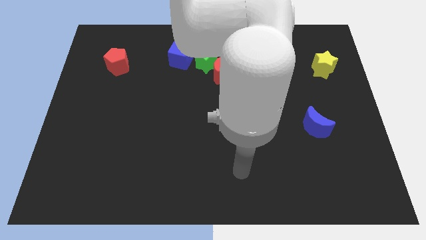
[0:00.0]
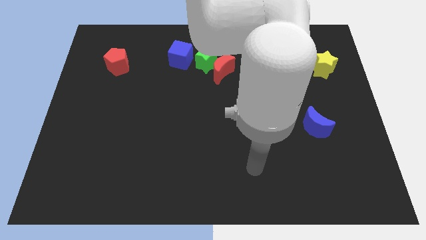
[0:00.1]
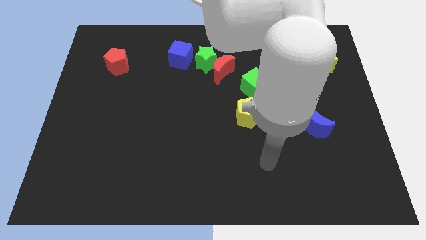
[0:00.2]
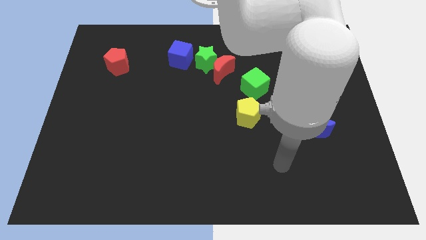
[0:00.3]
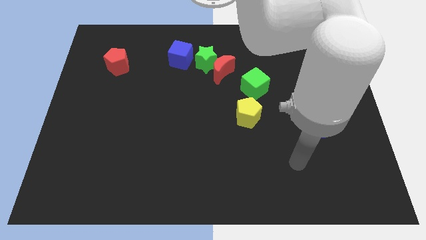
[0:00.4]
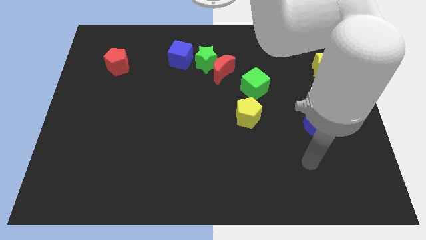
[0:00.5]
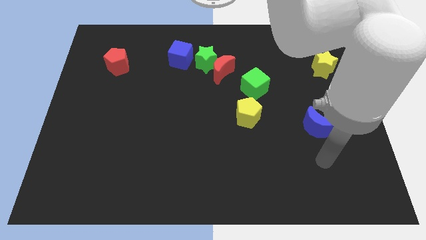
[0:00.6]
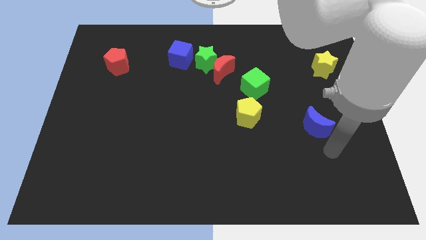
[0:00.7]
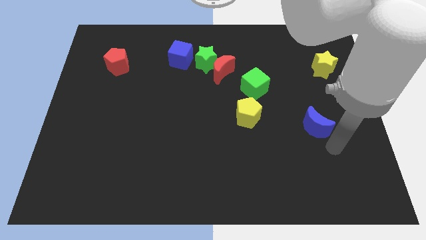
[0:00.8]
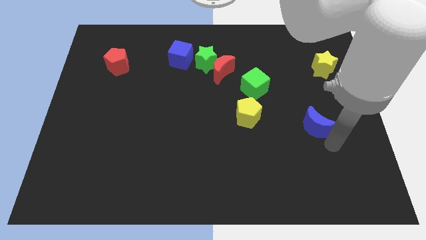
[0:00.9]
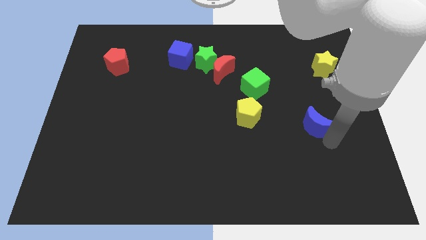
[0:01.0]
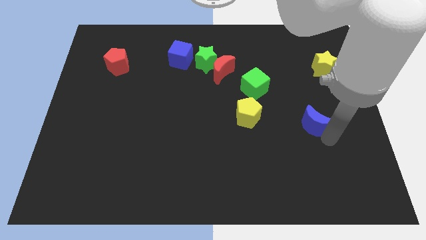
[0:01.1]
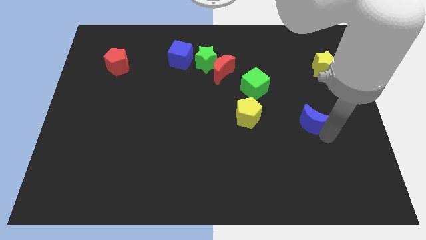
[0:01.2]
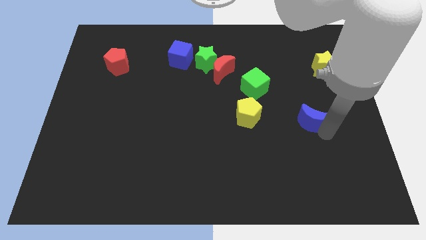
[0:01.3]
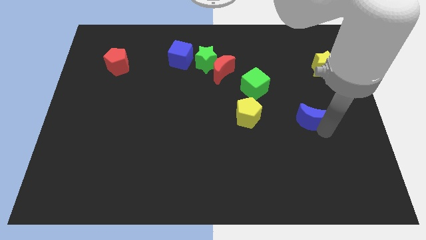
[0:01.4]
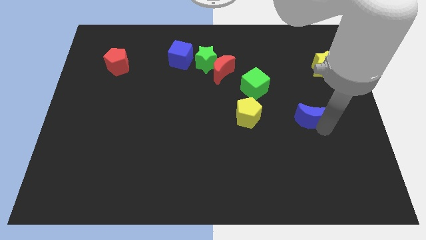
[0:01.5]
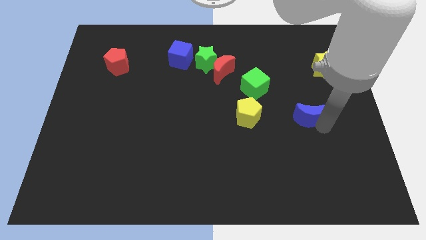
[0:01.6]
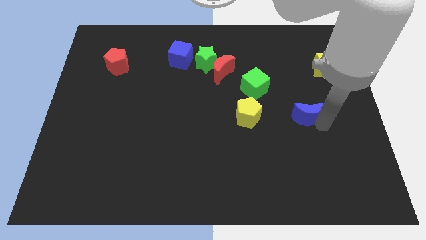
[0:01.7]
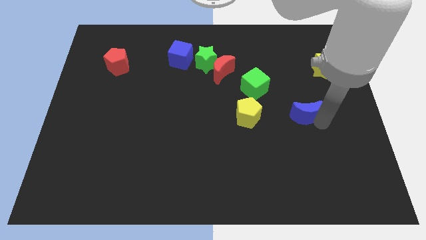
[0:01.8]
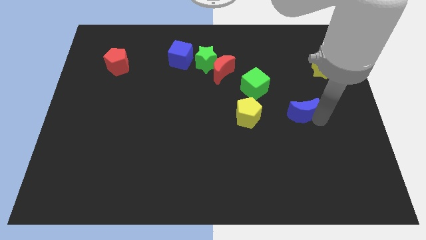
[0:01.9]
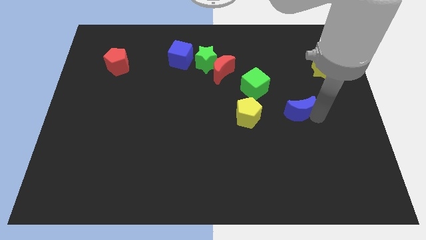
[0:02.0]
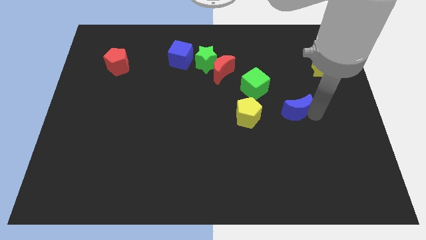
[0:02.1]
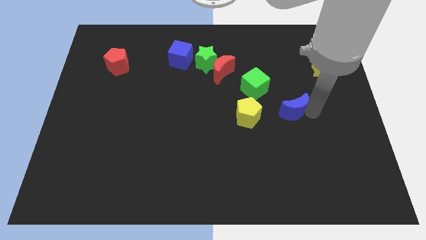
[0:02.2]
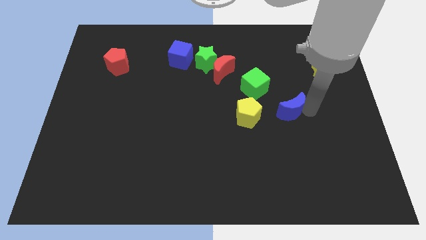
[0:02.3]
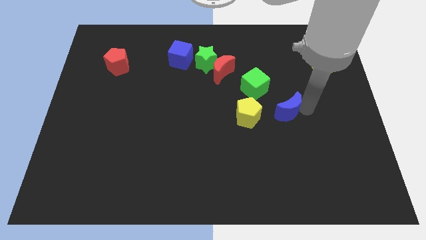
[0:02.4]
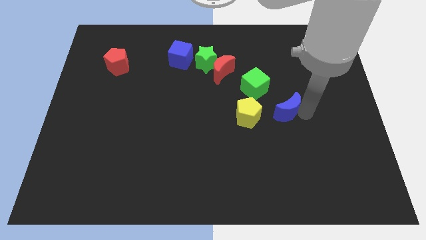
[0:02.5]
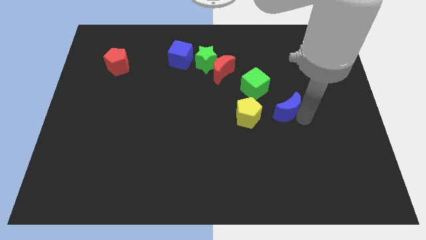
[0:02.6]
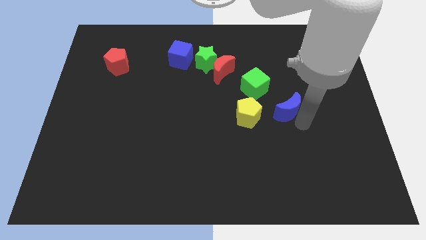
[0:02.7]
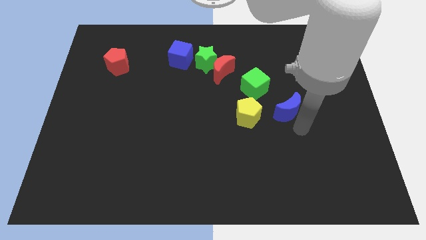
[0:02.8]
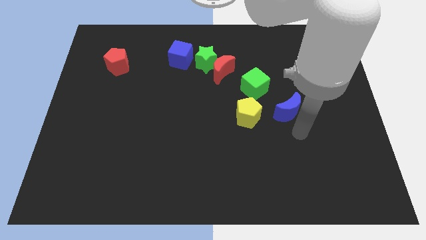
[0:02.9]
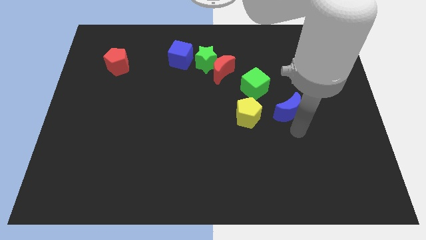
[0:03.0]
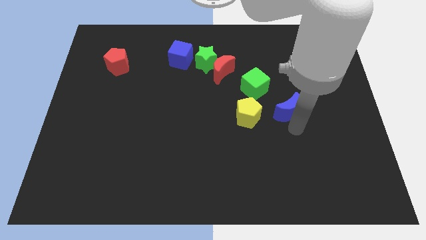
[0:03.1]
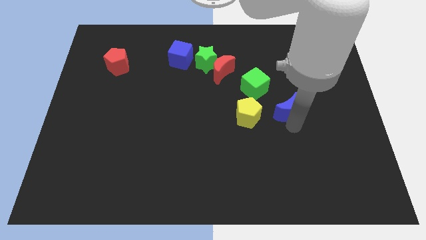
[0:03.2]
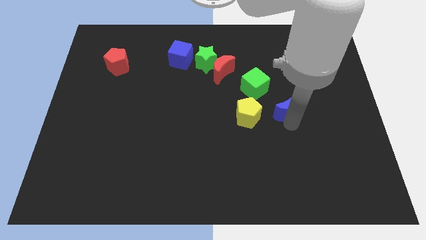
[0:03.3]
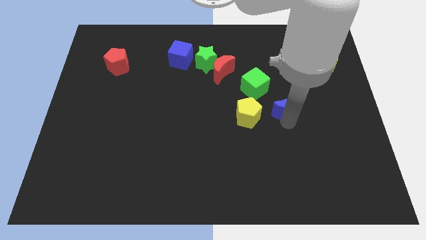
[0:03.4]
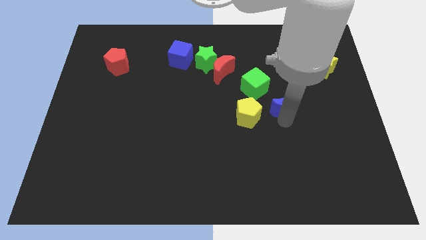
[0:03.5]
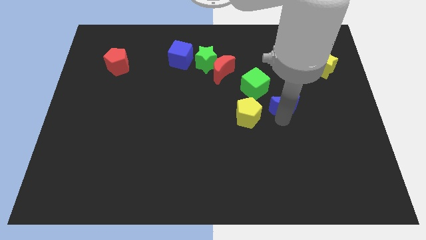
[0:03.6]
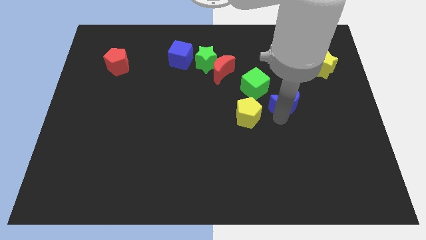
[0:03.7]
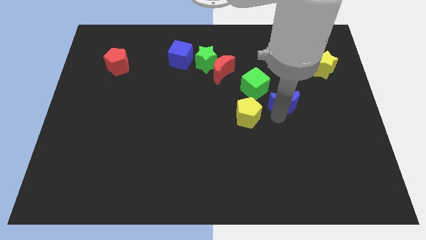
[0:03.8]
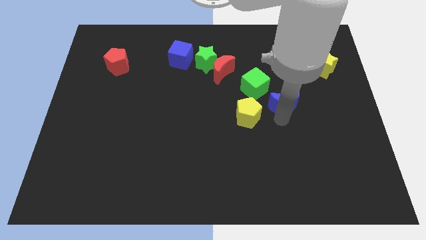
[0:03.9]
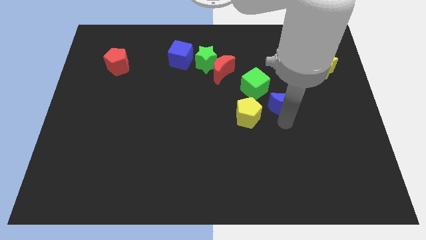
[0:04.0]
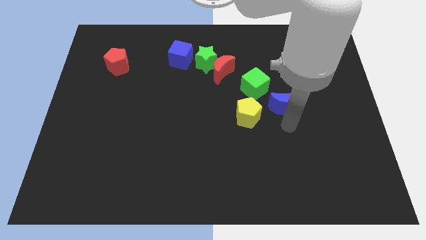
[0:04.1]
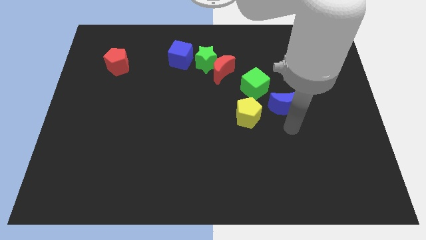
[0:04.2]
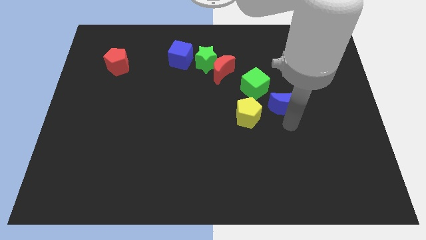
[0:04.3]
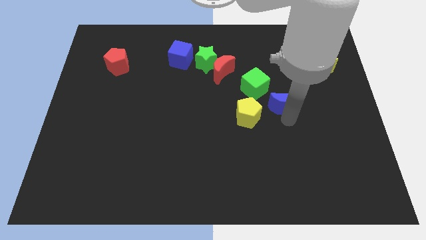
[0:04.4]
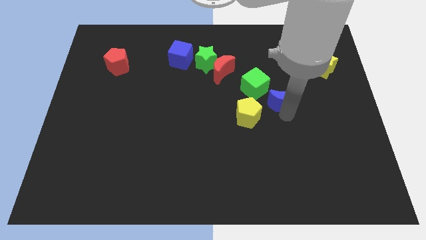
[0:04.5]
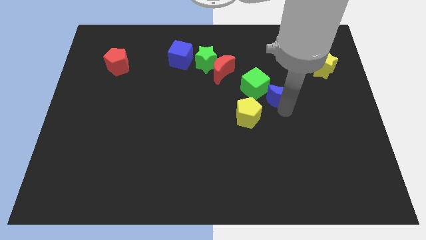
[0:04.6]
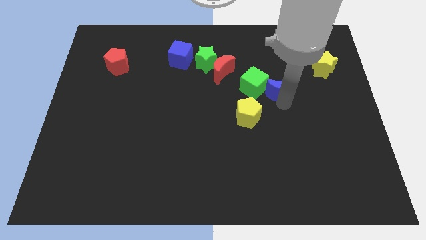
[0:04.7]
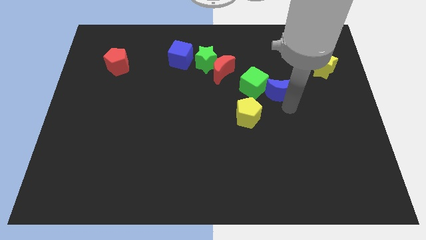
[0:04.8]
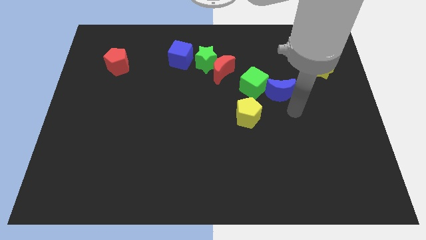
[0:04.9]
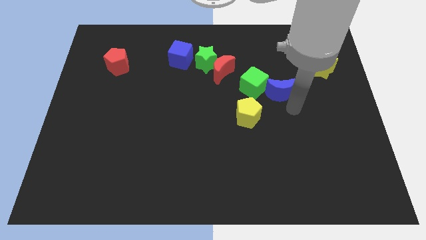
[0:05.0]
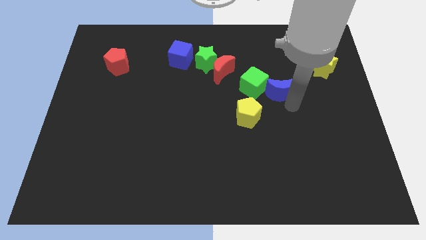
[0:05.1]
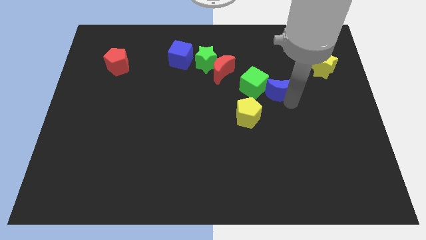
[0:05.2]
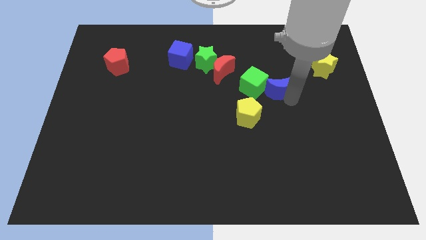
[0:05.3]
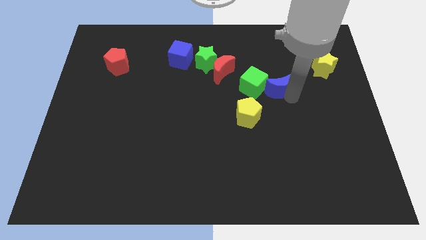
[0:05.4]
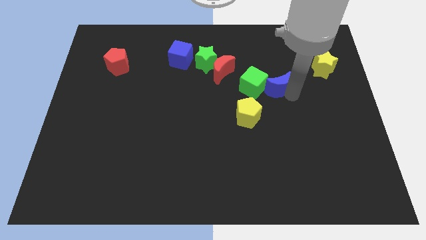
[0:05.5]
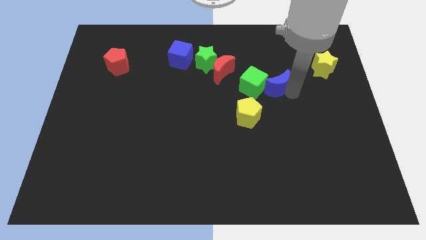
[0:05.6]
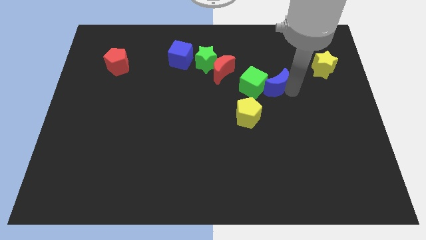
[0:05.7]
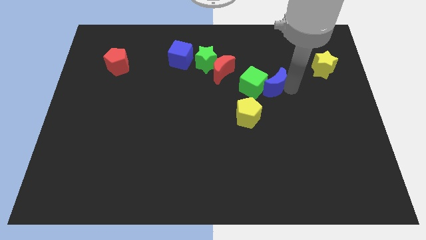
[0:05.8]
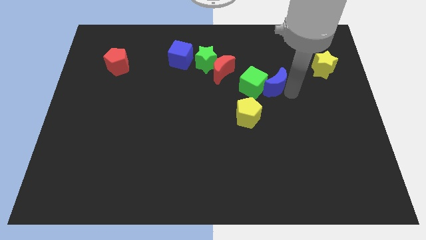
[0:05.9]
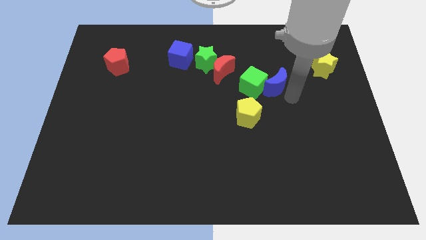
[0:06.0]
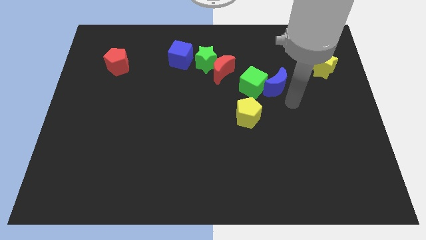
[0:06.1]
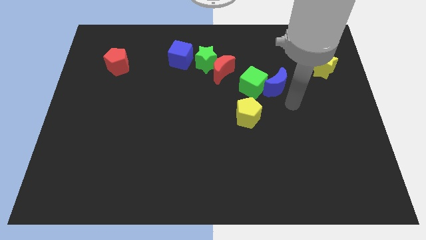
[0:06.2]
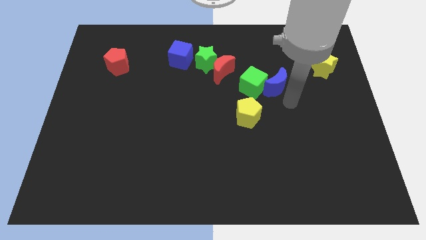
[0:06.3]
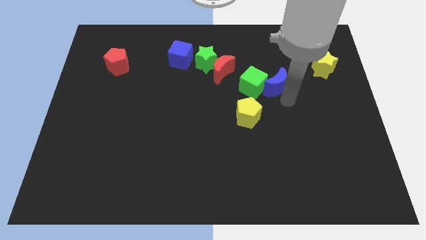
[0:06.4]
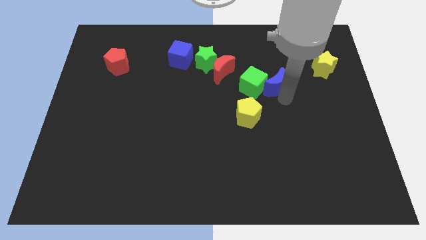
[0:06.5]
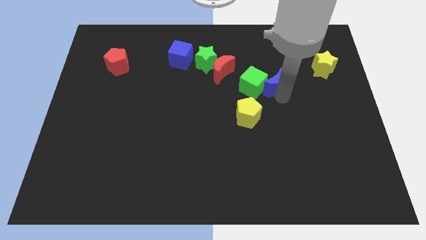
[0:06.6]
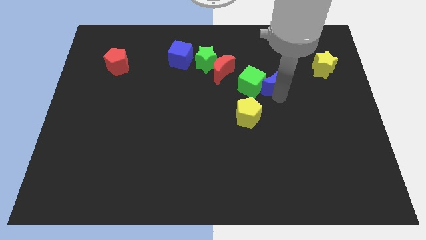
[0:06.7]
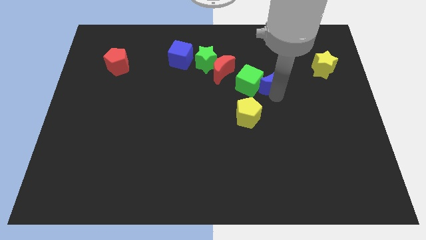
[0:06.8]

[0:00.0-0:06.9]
push the blue moon just right of the red moon

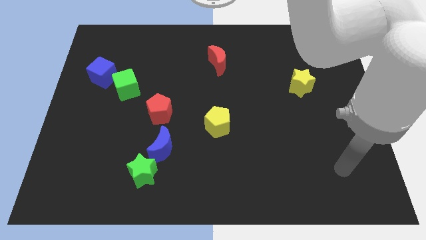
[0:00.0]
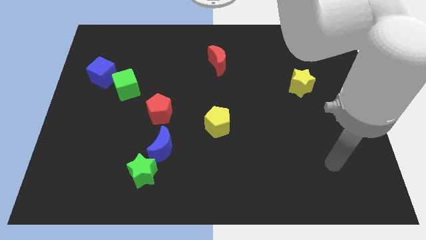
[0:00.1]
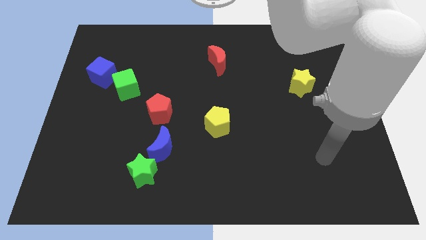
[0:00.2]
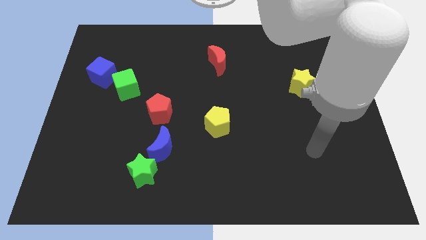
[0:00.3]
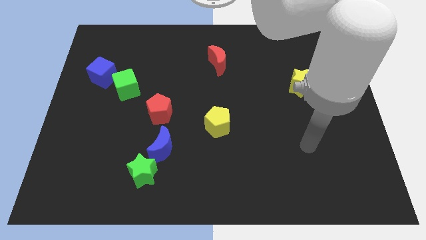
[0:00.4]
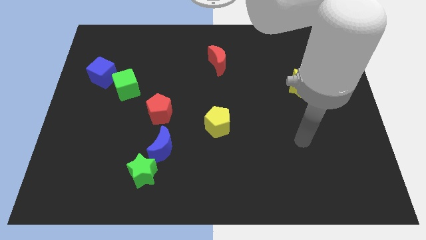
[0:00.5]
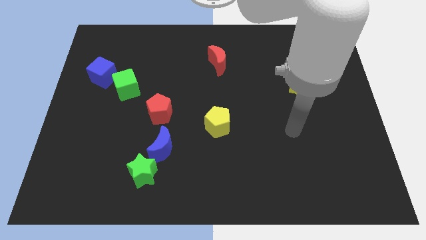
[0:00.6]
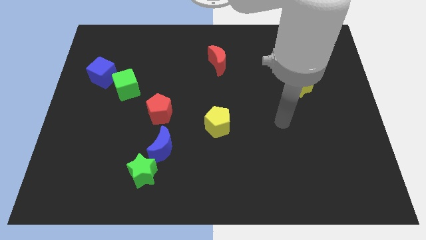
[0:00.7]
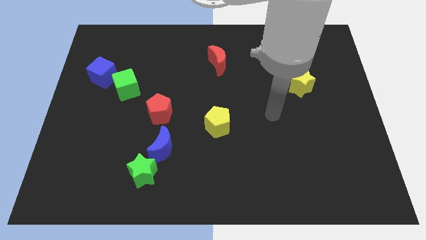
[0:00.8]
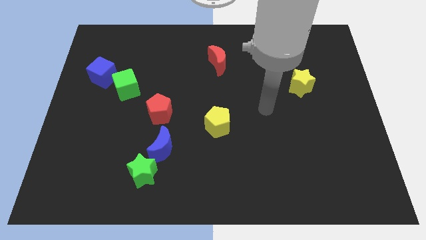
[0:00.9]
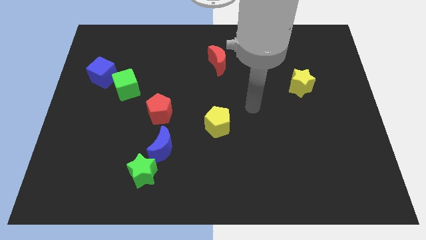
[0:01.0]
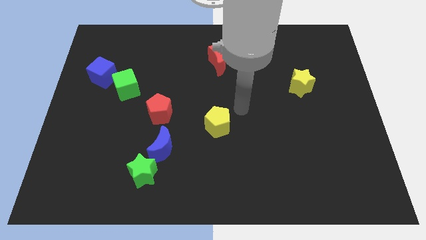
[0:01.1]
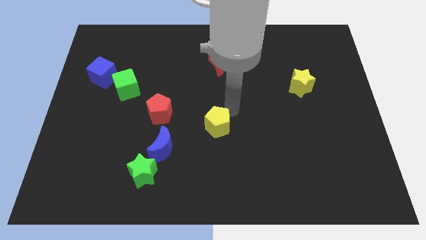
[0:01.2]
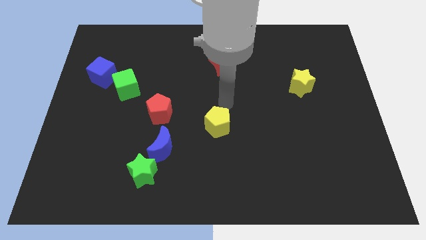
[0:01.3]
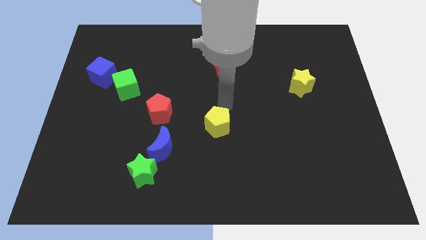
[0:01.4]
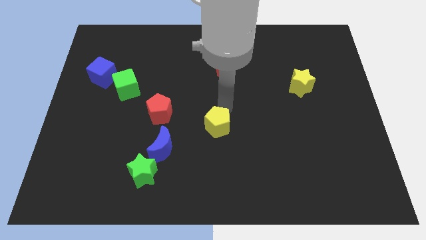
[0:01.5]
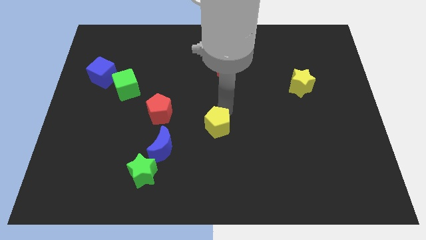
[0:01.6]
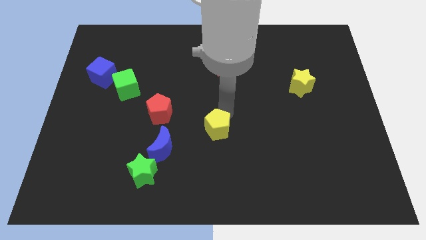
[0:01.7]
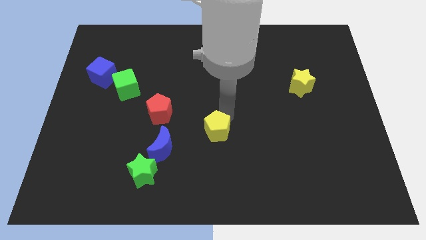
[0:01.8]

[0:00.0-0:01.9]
move the yellow pentagon right of the blue moon
